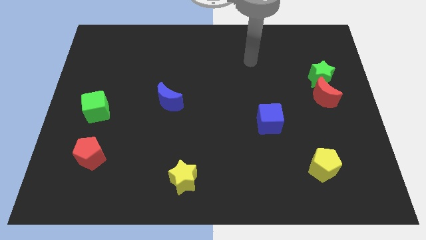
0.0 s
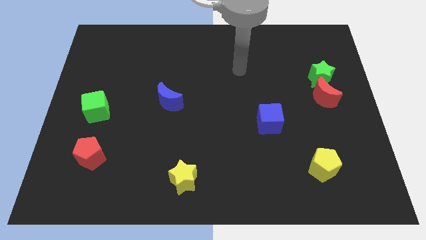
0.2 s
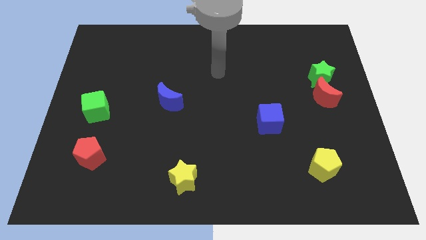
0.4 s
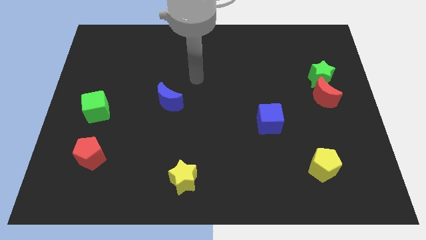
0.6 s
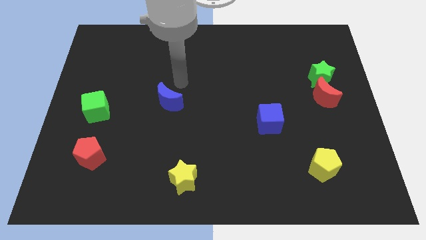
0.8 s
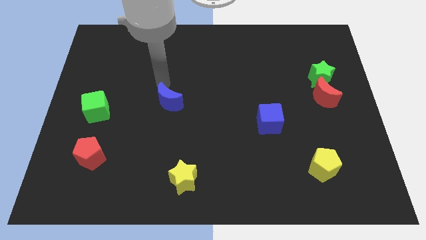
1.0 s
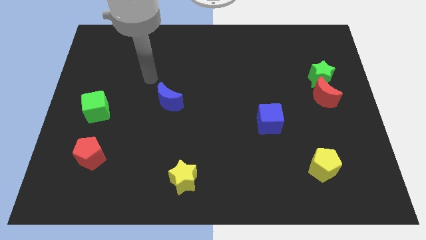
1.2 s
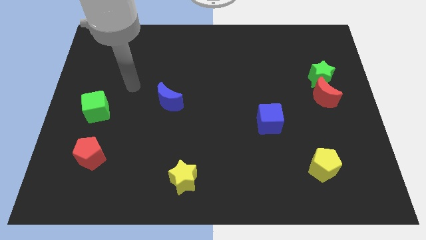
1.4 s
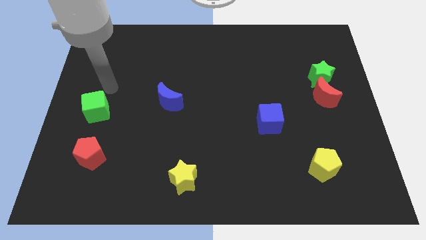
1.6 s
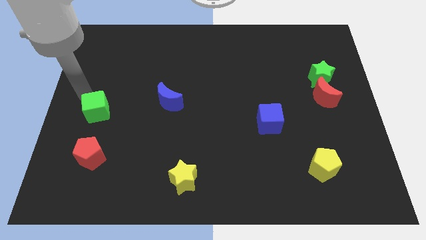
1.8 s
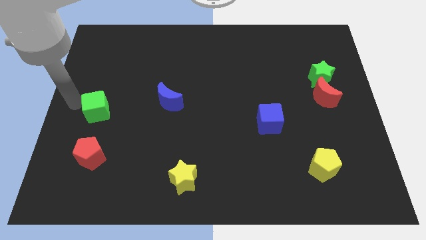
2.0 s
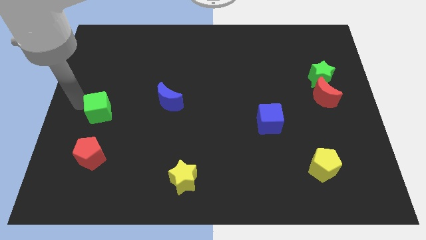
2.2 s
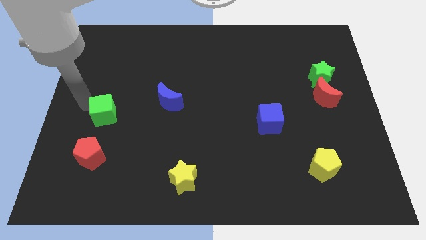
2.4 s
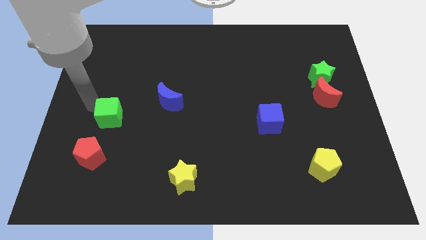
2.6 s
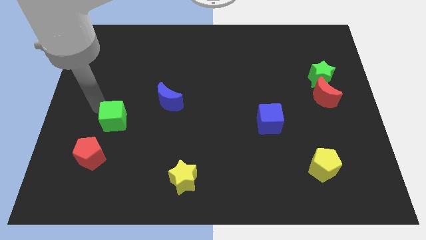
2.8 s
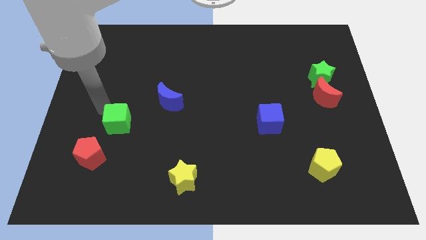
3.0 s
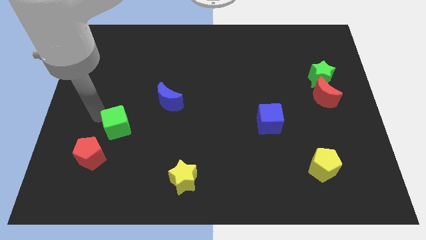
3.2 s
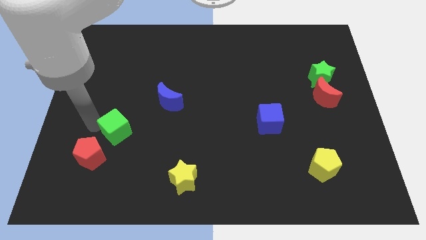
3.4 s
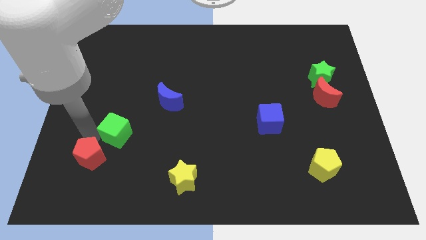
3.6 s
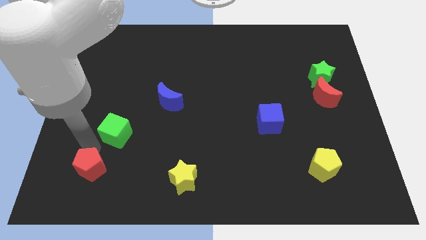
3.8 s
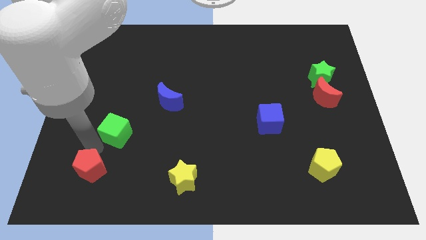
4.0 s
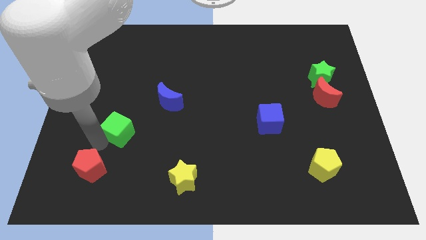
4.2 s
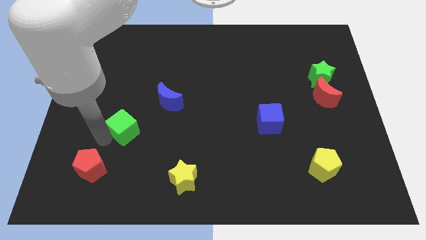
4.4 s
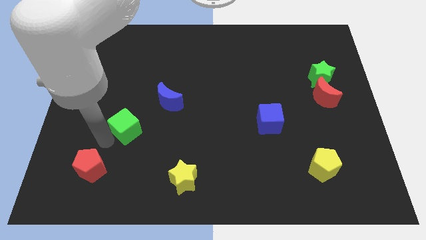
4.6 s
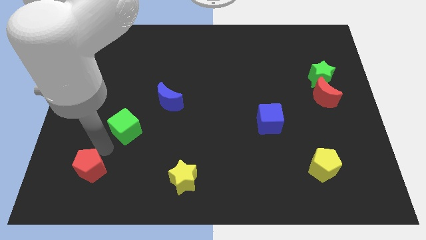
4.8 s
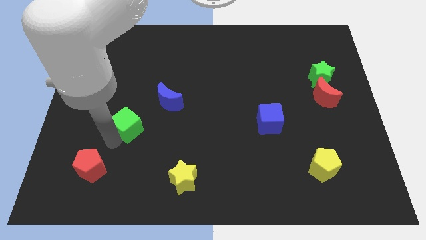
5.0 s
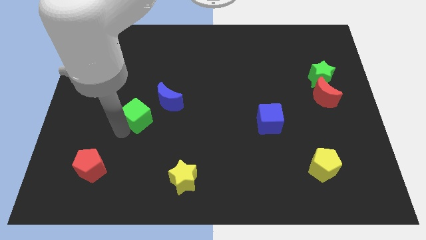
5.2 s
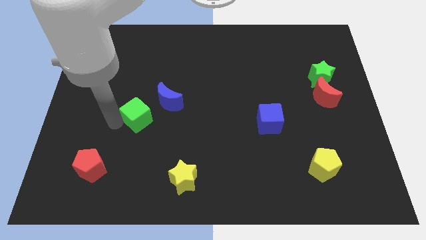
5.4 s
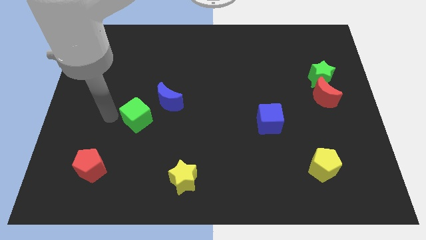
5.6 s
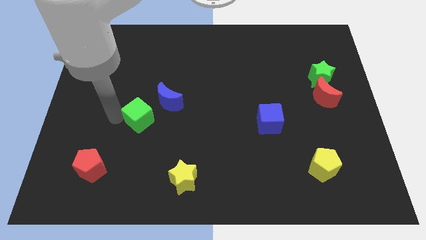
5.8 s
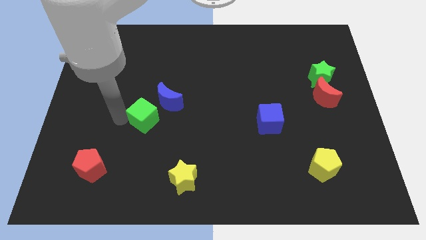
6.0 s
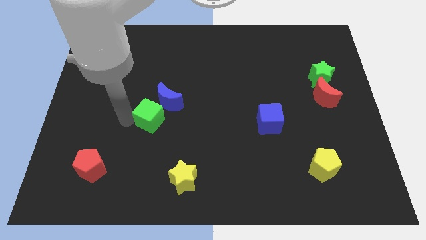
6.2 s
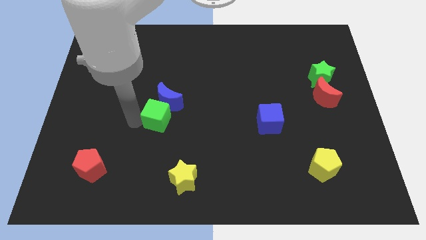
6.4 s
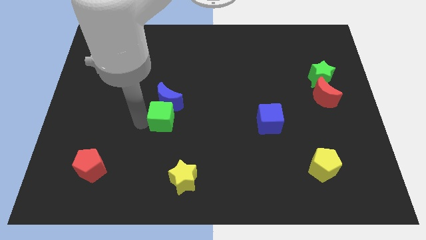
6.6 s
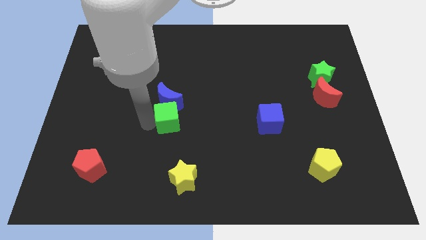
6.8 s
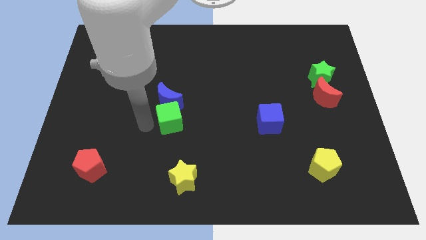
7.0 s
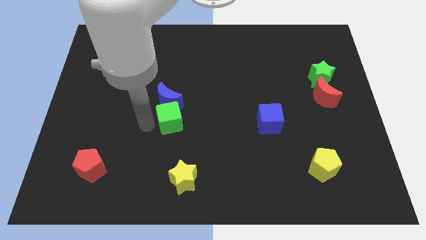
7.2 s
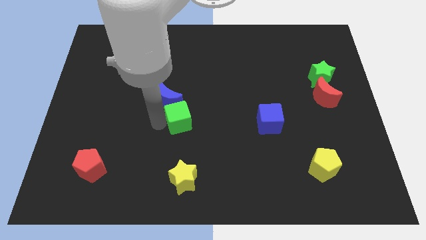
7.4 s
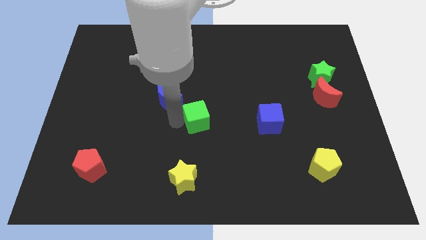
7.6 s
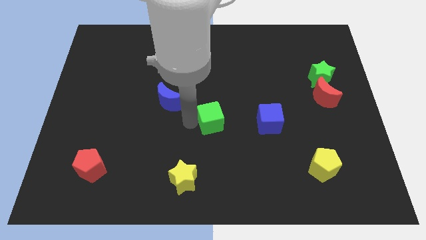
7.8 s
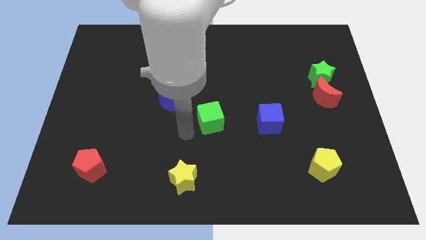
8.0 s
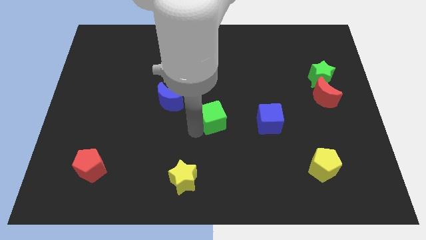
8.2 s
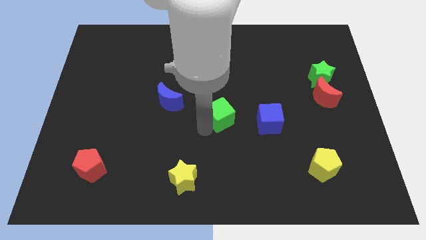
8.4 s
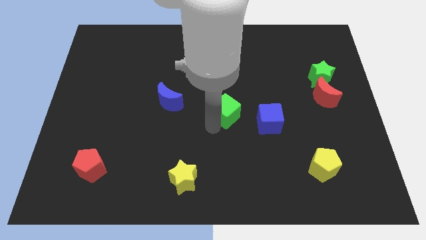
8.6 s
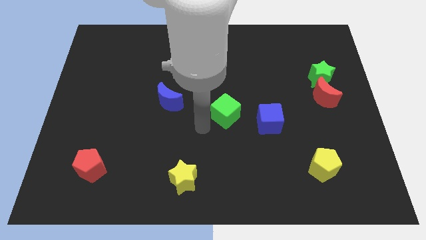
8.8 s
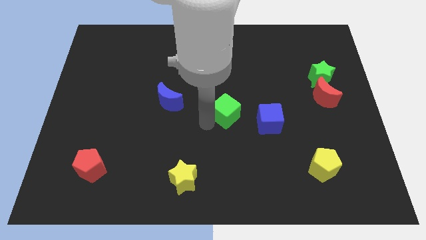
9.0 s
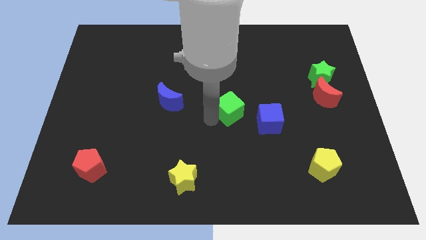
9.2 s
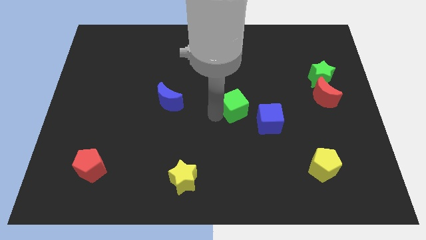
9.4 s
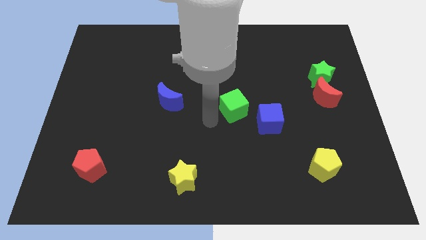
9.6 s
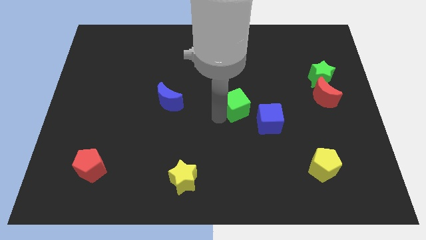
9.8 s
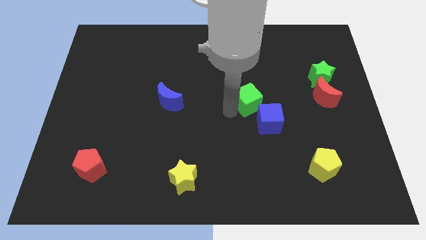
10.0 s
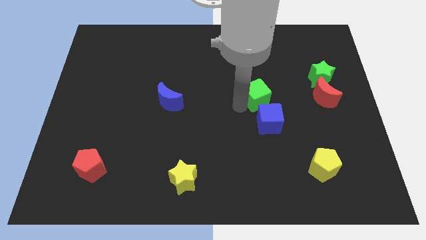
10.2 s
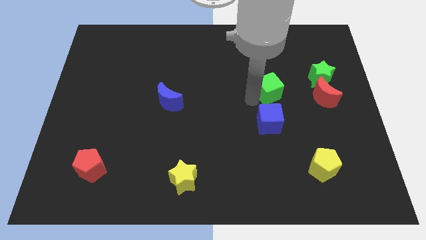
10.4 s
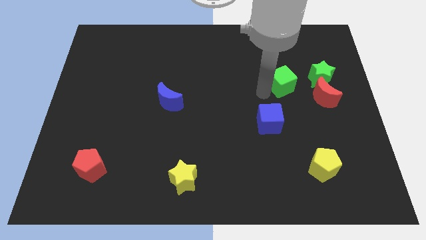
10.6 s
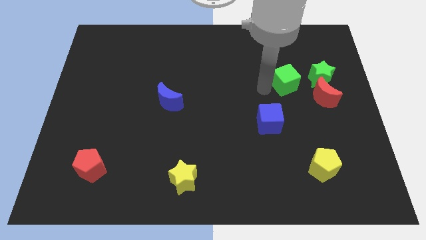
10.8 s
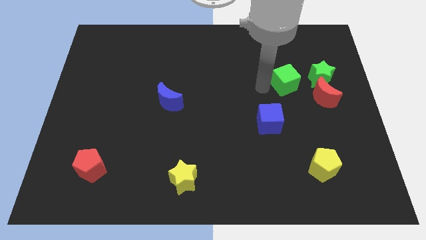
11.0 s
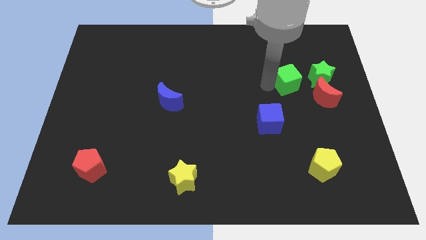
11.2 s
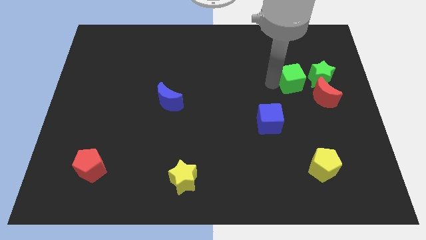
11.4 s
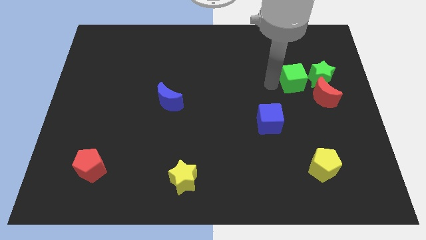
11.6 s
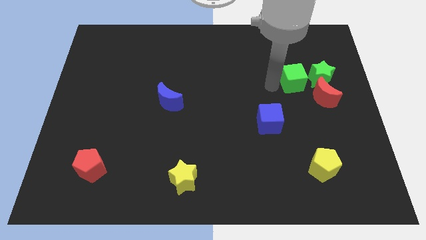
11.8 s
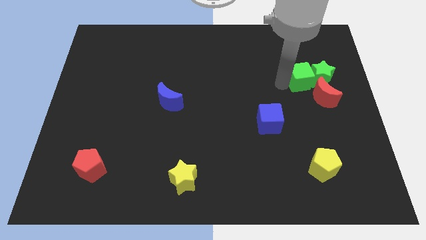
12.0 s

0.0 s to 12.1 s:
slide the green cube next to the green star
